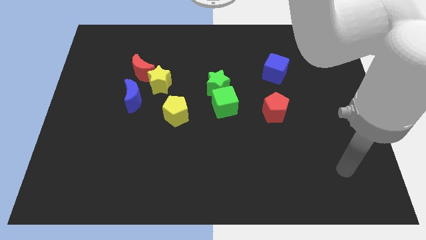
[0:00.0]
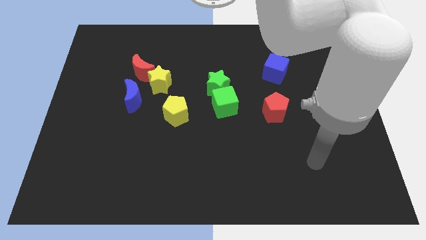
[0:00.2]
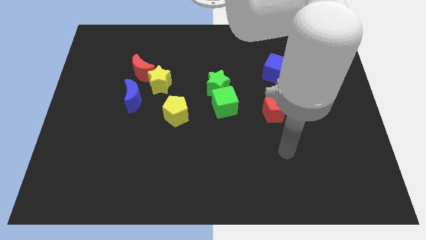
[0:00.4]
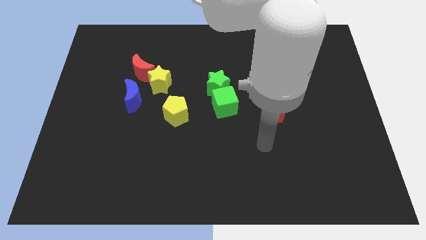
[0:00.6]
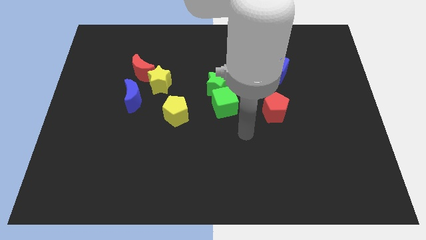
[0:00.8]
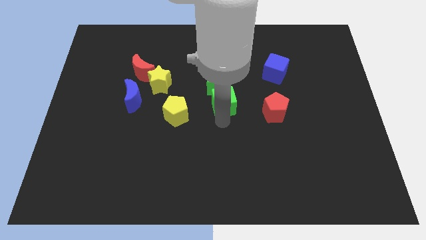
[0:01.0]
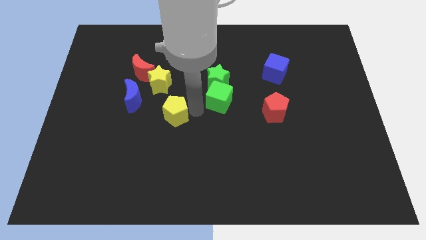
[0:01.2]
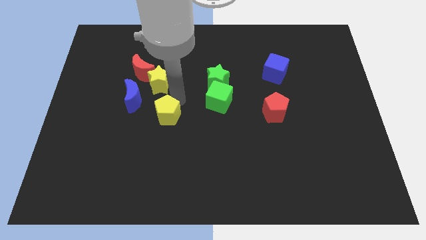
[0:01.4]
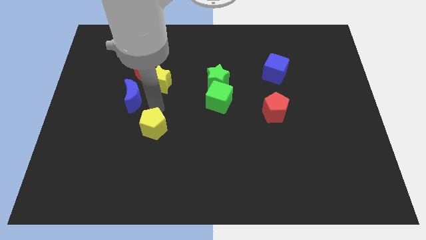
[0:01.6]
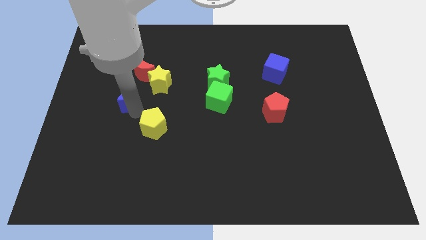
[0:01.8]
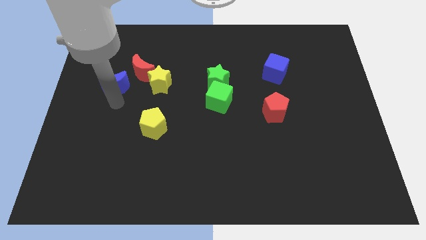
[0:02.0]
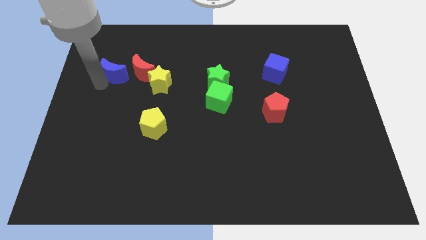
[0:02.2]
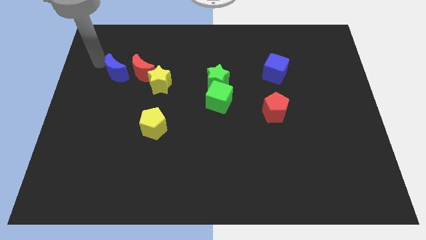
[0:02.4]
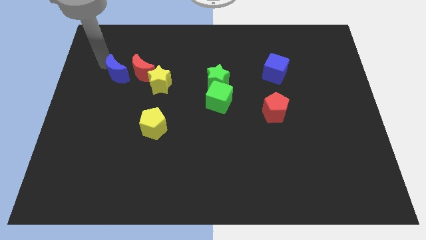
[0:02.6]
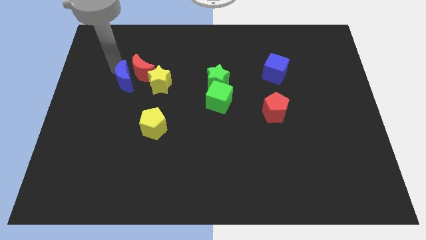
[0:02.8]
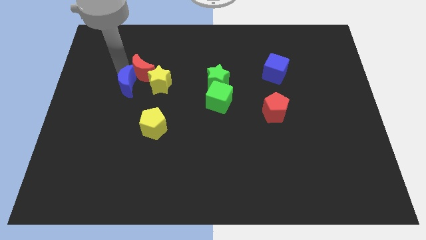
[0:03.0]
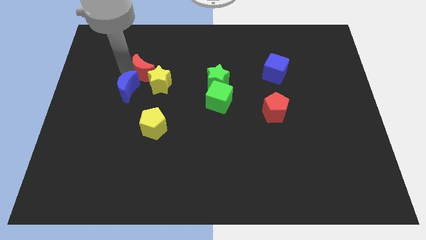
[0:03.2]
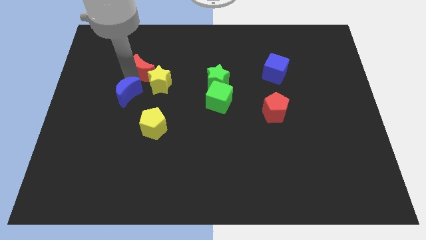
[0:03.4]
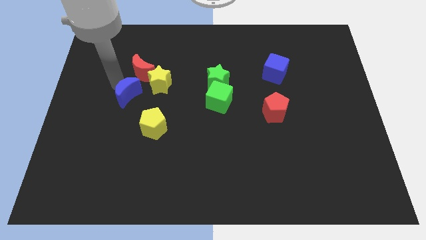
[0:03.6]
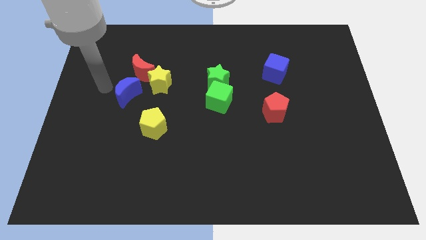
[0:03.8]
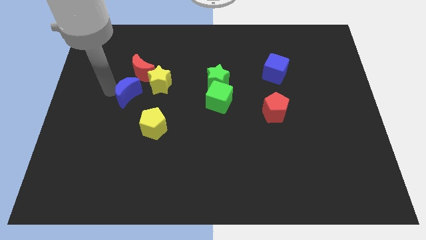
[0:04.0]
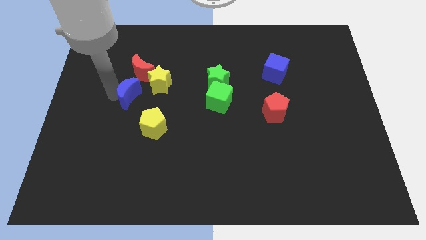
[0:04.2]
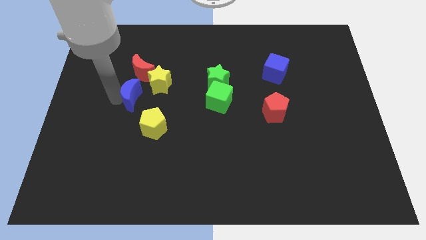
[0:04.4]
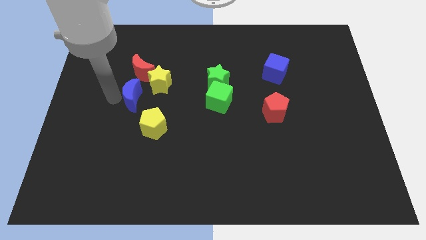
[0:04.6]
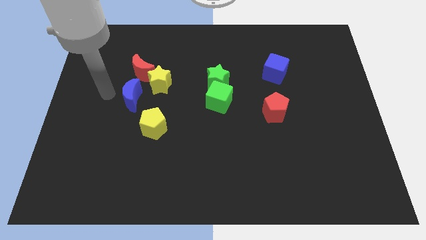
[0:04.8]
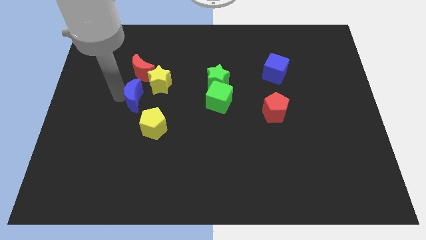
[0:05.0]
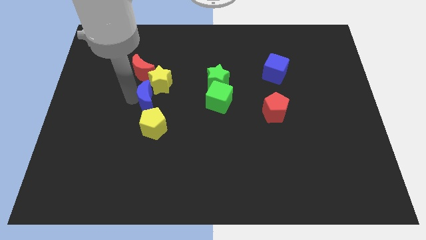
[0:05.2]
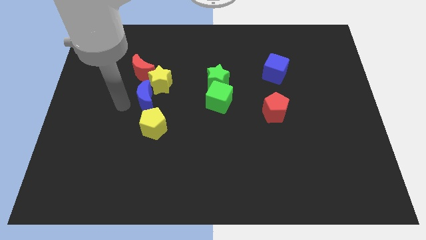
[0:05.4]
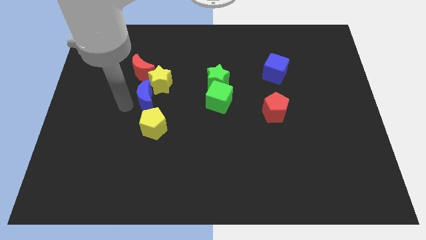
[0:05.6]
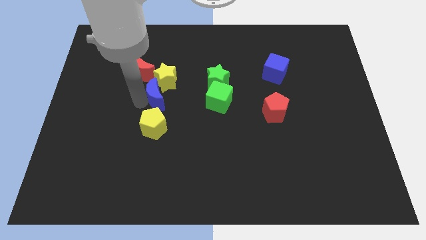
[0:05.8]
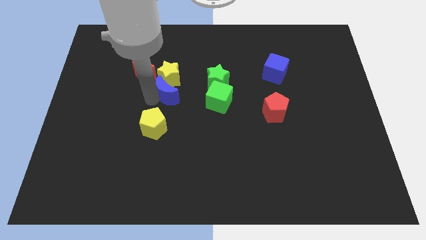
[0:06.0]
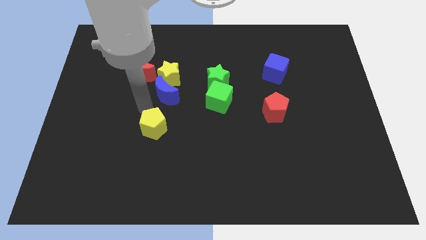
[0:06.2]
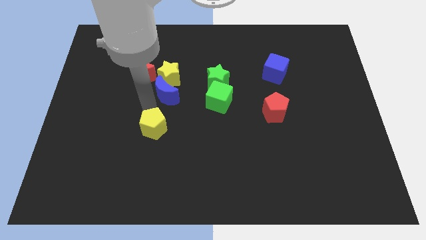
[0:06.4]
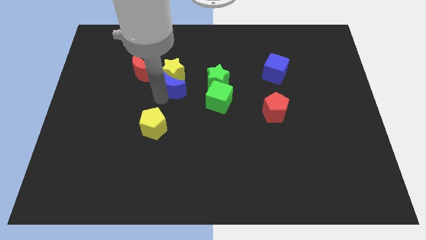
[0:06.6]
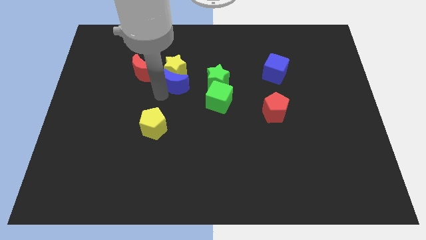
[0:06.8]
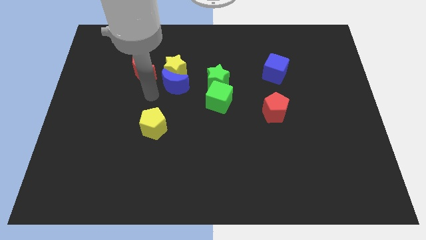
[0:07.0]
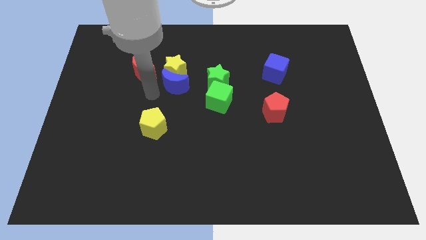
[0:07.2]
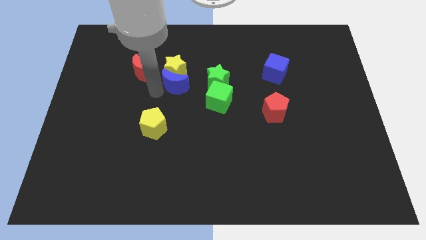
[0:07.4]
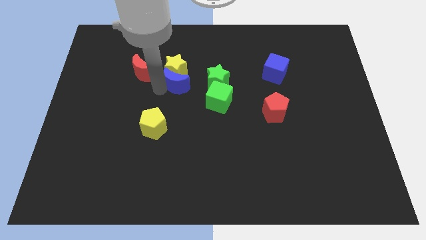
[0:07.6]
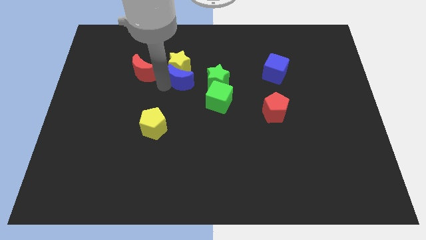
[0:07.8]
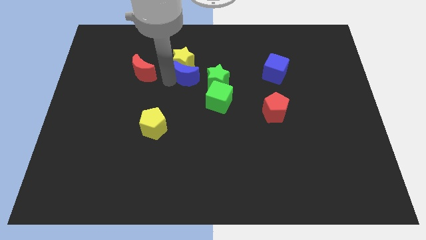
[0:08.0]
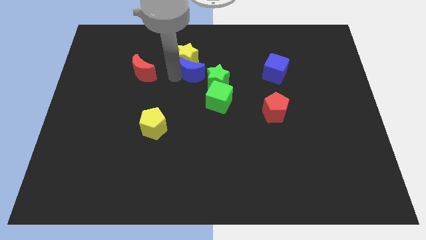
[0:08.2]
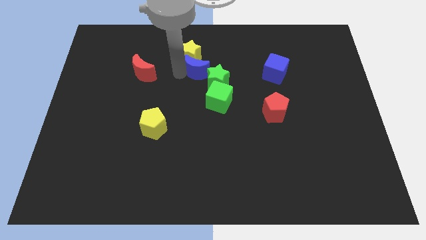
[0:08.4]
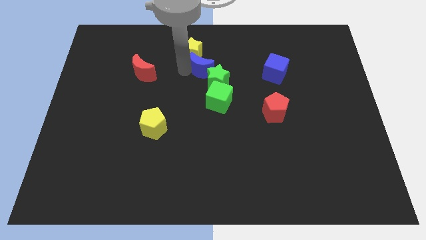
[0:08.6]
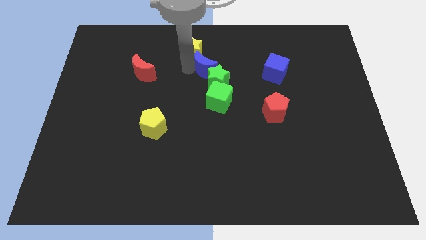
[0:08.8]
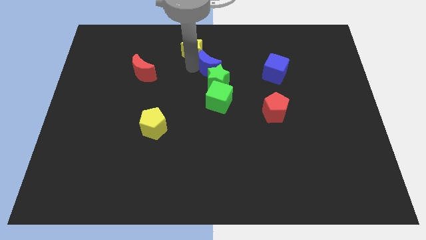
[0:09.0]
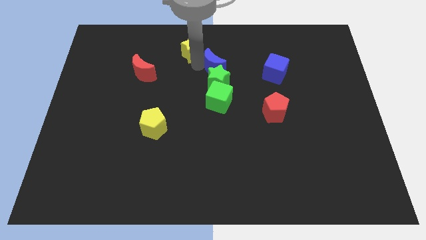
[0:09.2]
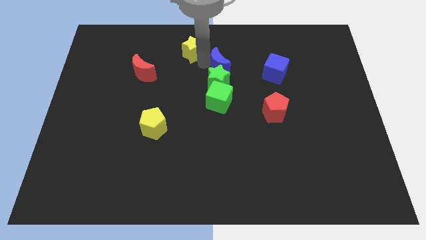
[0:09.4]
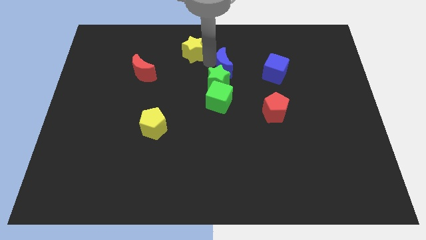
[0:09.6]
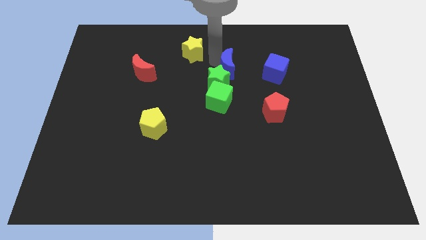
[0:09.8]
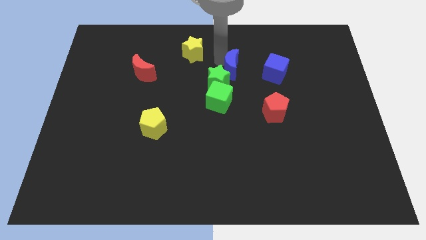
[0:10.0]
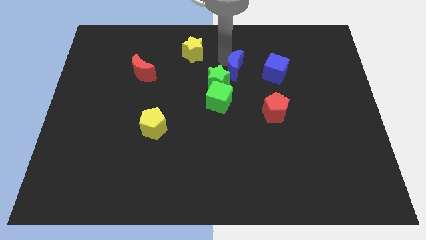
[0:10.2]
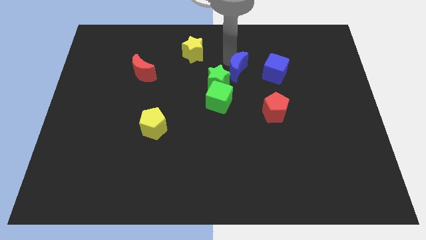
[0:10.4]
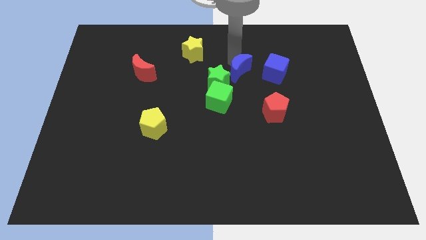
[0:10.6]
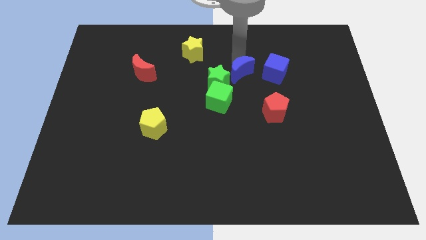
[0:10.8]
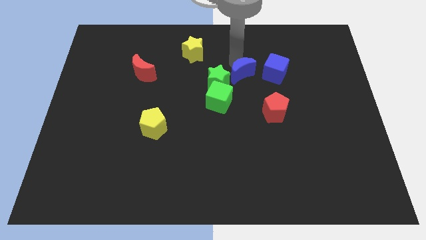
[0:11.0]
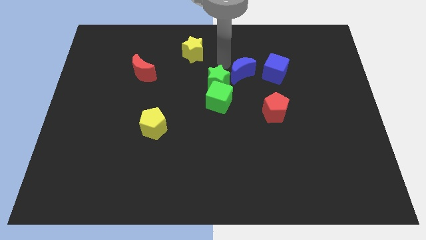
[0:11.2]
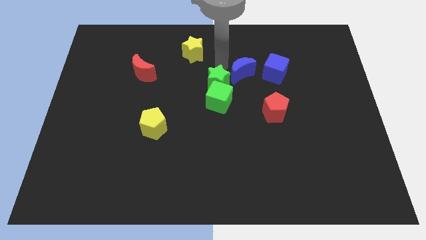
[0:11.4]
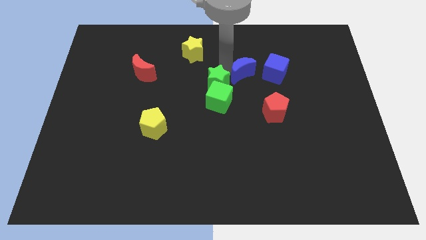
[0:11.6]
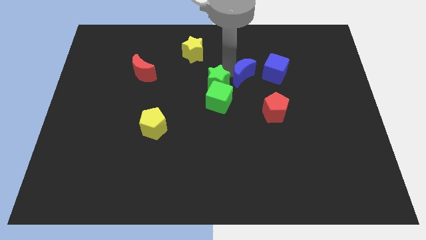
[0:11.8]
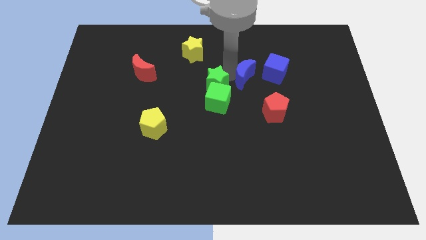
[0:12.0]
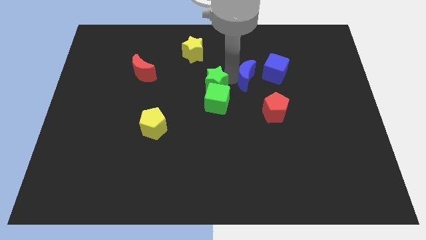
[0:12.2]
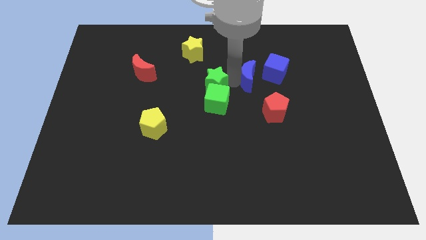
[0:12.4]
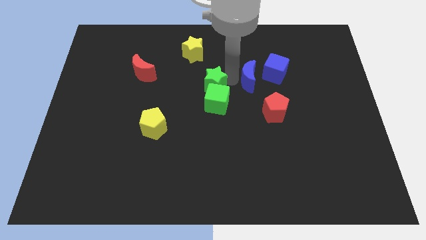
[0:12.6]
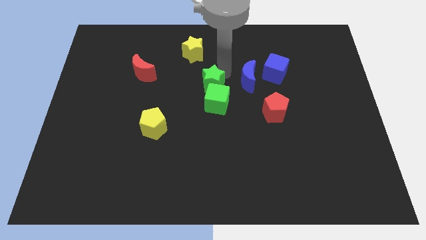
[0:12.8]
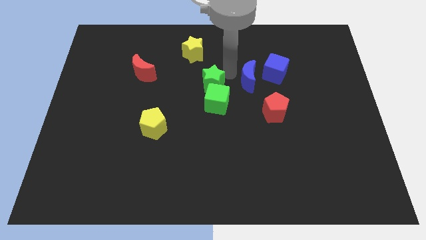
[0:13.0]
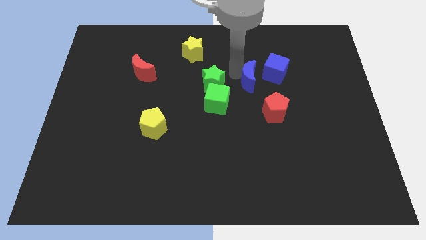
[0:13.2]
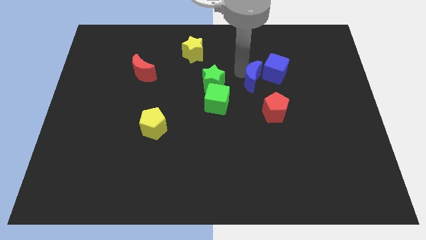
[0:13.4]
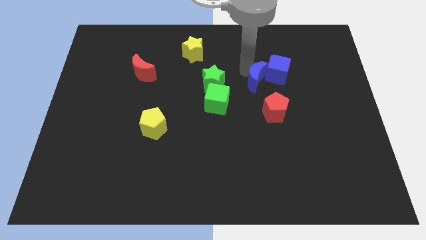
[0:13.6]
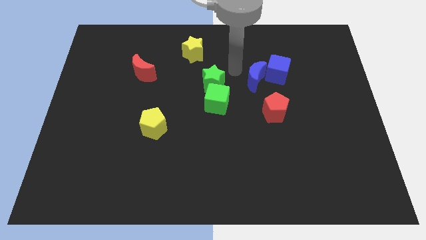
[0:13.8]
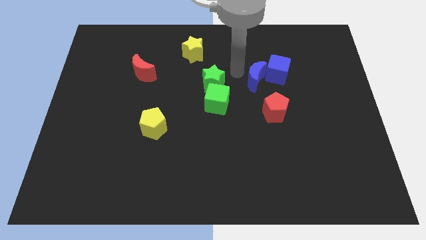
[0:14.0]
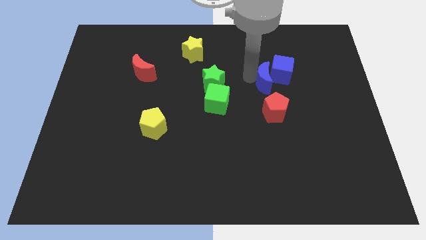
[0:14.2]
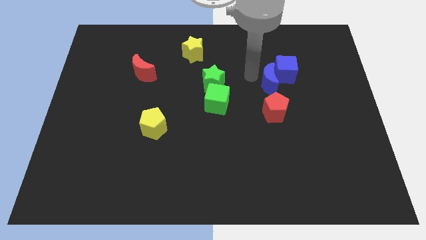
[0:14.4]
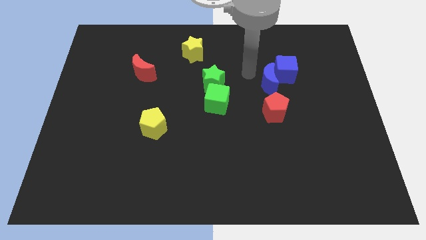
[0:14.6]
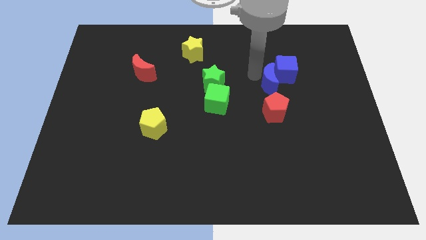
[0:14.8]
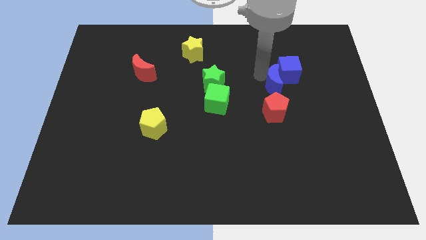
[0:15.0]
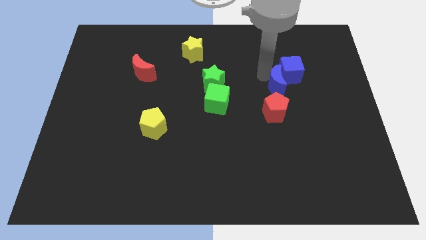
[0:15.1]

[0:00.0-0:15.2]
push the blue moon to the top right side of the red pentagon
